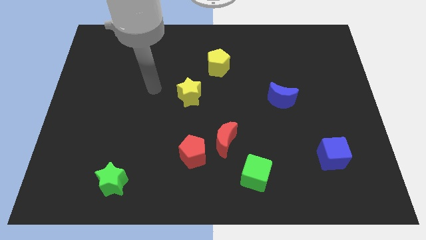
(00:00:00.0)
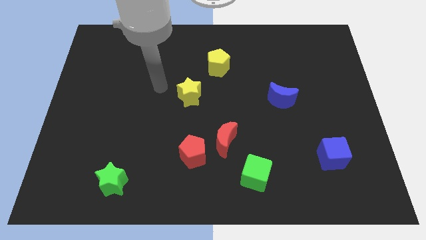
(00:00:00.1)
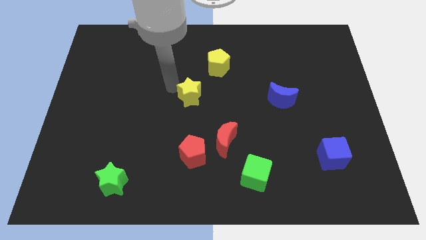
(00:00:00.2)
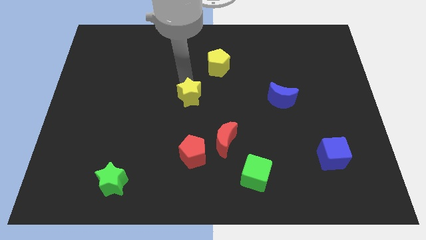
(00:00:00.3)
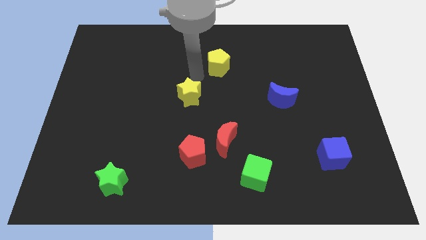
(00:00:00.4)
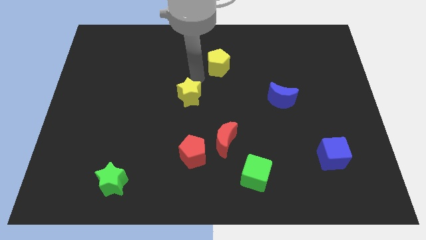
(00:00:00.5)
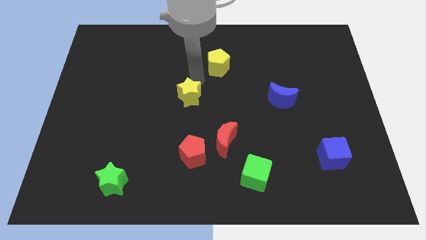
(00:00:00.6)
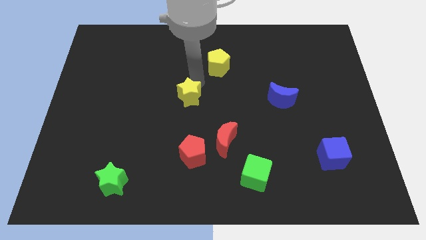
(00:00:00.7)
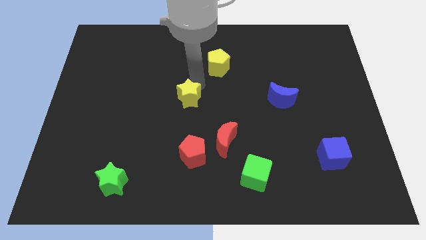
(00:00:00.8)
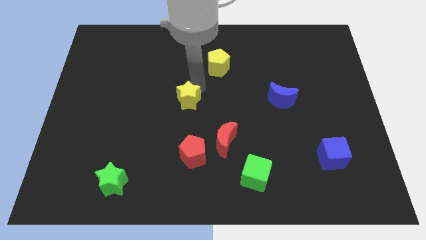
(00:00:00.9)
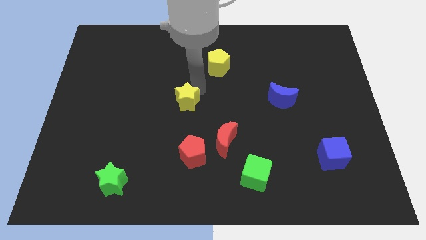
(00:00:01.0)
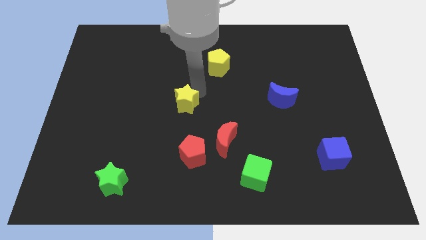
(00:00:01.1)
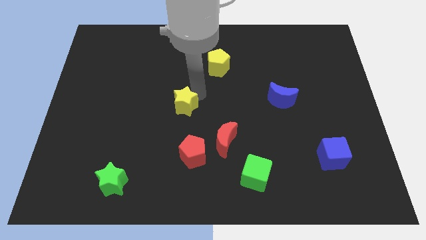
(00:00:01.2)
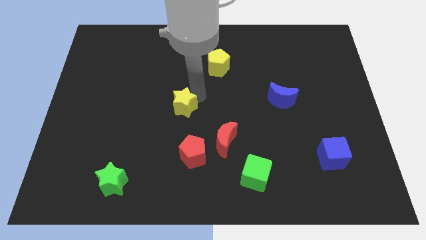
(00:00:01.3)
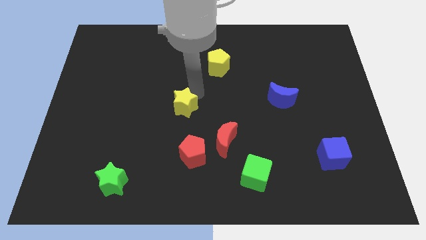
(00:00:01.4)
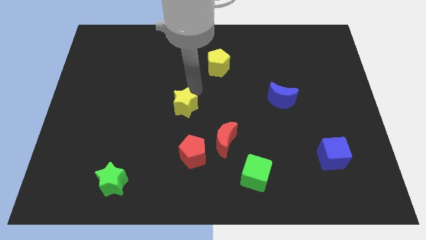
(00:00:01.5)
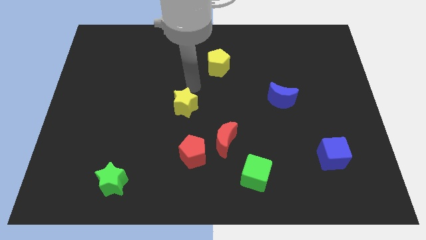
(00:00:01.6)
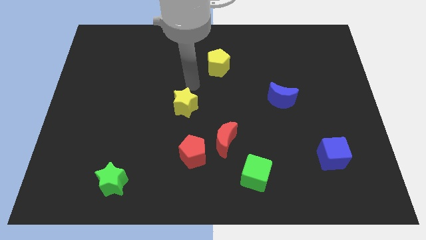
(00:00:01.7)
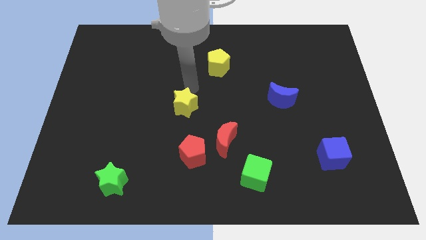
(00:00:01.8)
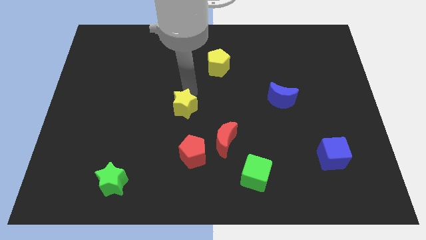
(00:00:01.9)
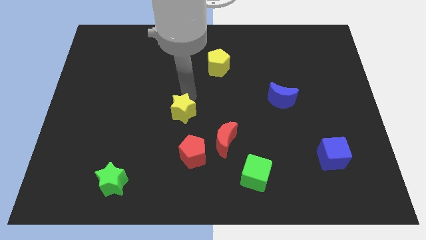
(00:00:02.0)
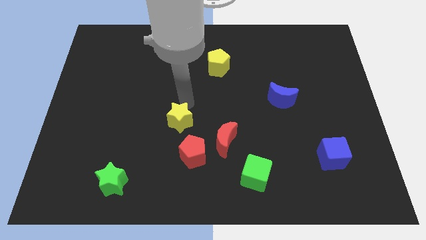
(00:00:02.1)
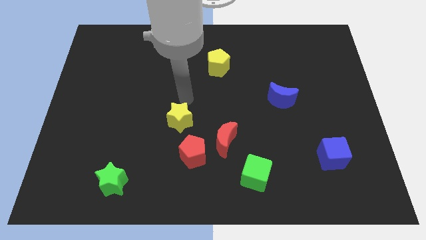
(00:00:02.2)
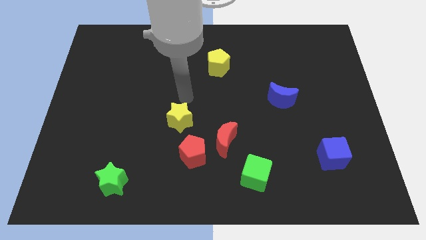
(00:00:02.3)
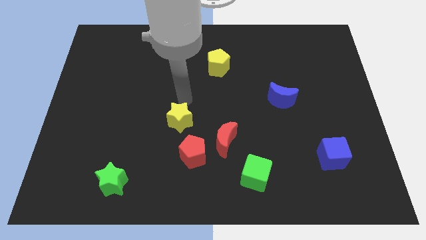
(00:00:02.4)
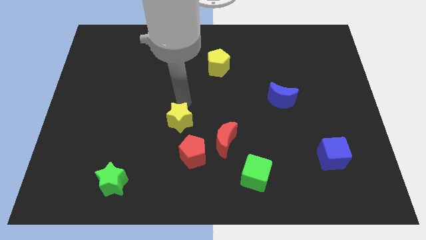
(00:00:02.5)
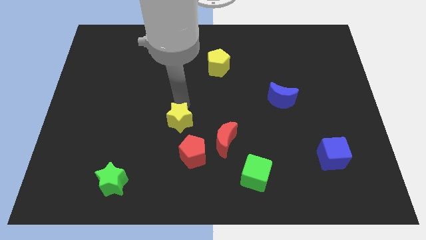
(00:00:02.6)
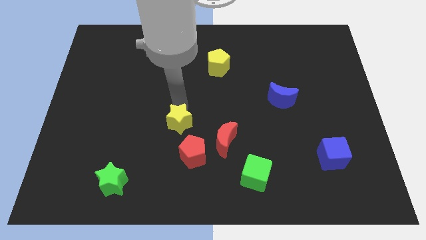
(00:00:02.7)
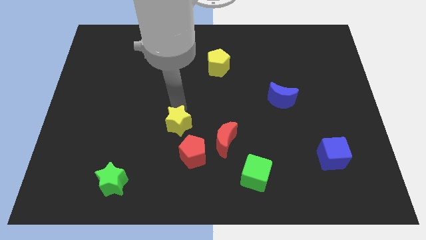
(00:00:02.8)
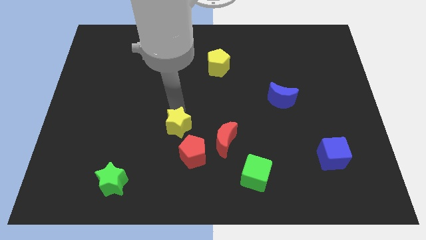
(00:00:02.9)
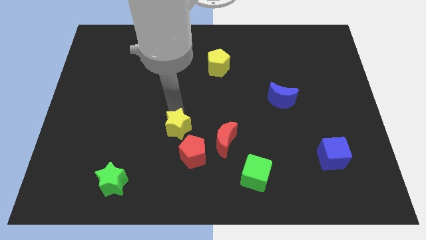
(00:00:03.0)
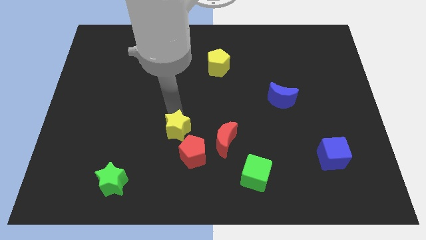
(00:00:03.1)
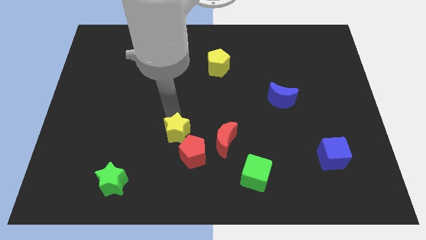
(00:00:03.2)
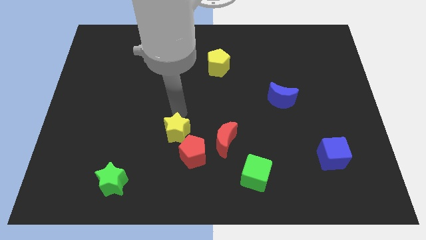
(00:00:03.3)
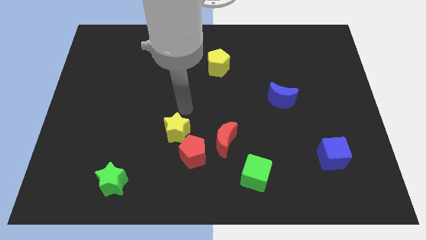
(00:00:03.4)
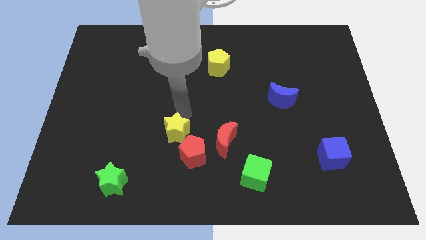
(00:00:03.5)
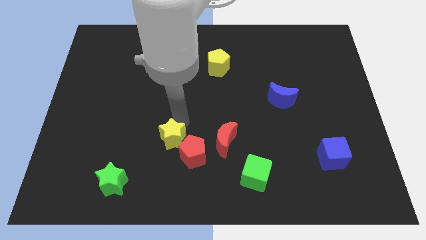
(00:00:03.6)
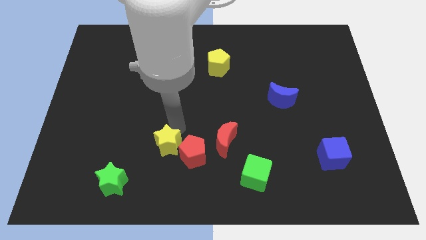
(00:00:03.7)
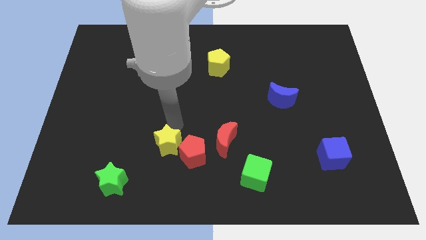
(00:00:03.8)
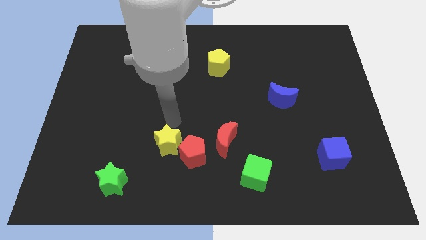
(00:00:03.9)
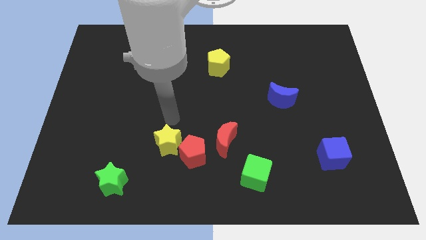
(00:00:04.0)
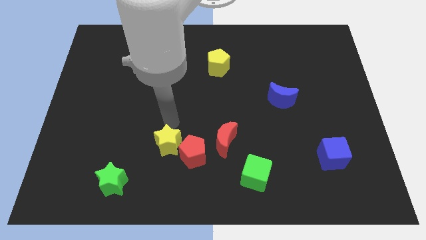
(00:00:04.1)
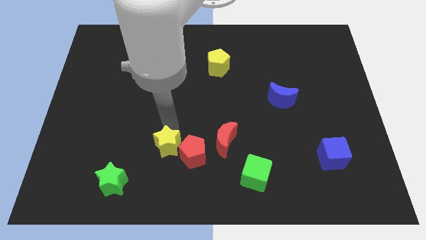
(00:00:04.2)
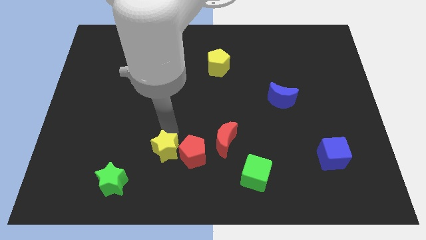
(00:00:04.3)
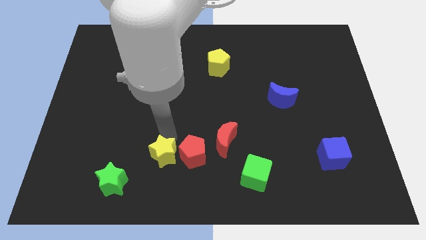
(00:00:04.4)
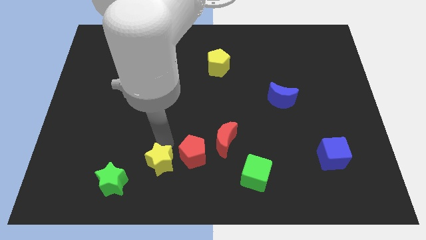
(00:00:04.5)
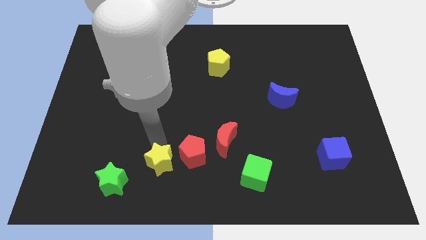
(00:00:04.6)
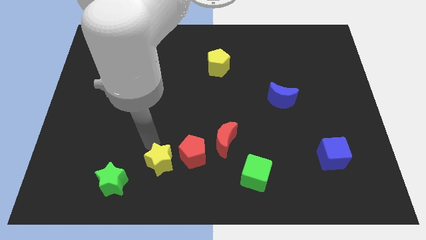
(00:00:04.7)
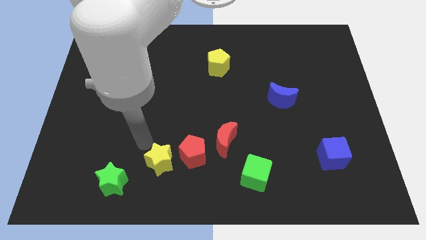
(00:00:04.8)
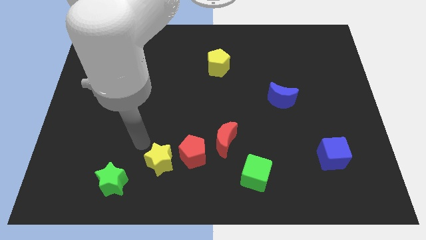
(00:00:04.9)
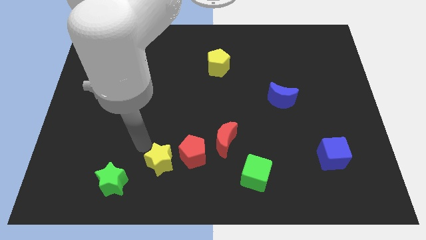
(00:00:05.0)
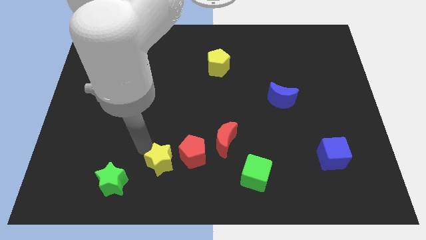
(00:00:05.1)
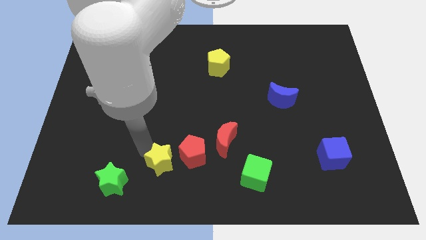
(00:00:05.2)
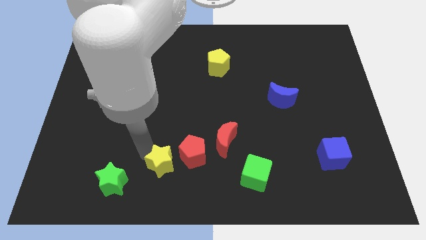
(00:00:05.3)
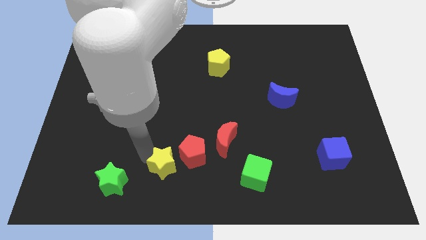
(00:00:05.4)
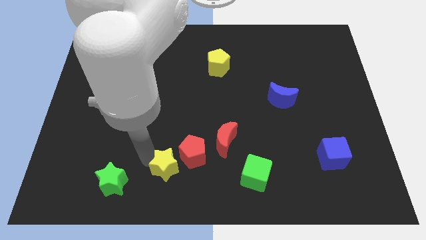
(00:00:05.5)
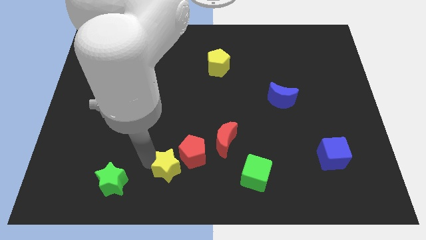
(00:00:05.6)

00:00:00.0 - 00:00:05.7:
put the yellow star to the bottom

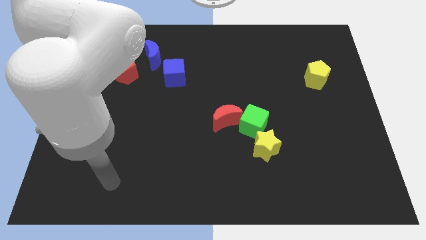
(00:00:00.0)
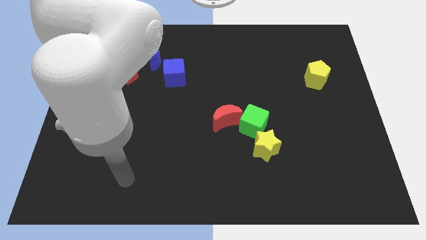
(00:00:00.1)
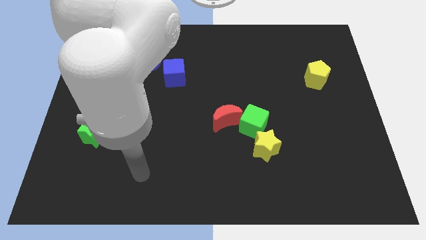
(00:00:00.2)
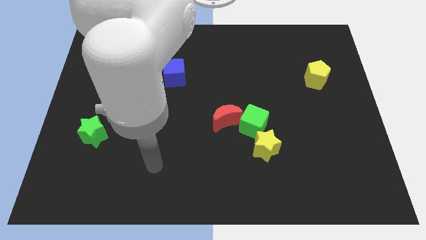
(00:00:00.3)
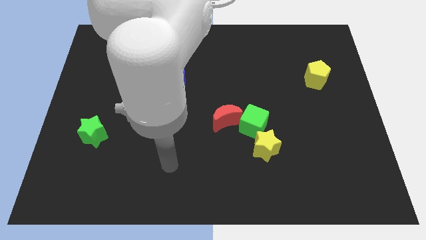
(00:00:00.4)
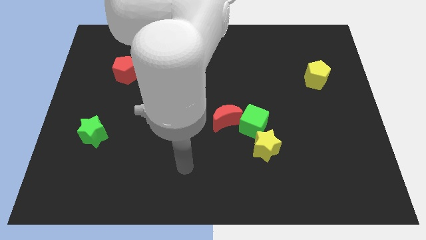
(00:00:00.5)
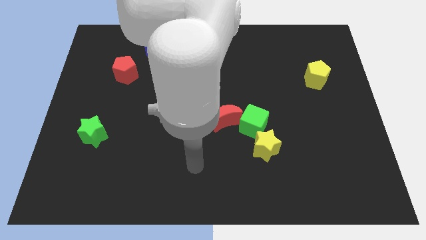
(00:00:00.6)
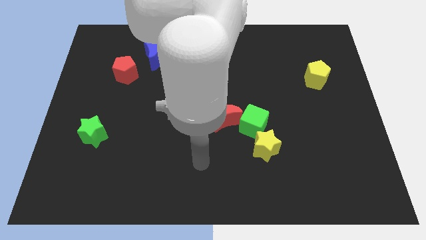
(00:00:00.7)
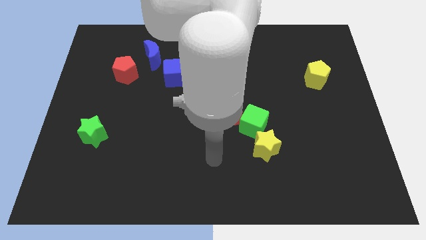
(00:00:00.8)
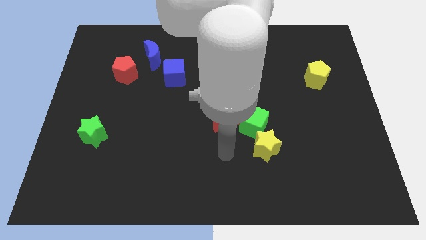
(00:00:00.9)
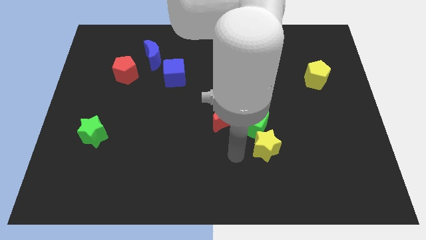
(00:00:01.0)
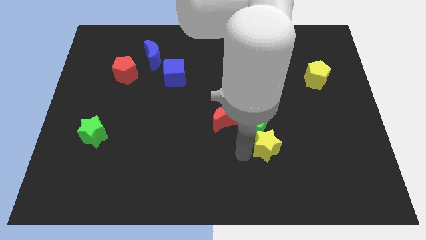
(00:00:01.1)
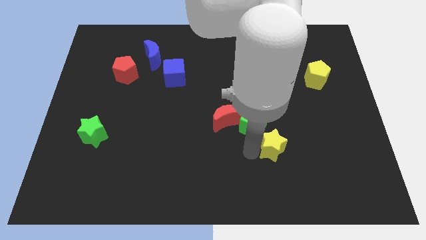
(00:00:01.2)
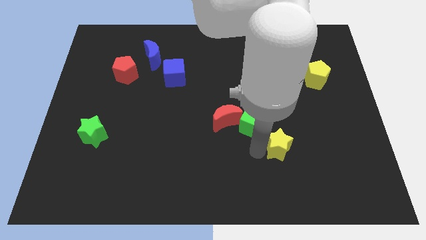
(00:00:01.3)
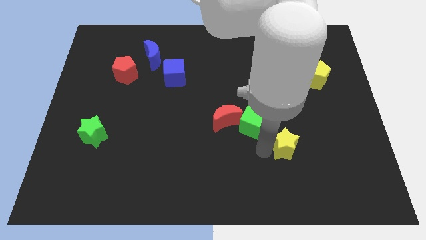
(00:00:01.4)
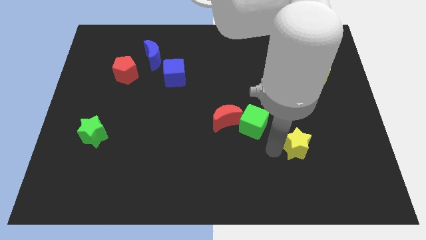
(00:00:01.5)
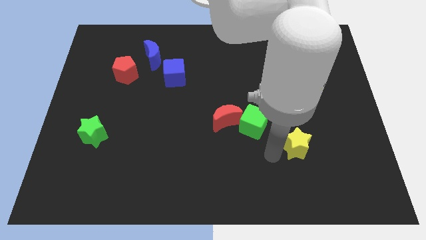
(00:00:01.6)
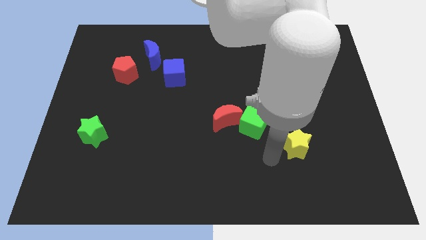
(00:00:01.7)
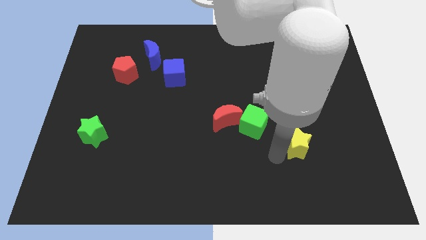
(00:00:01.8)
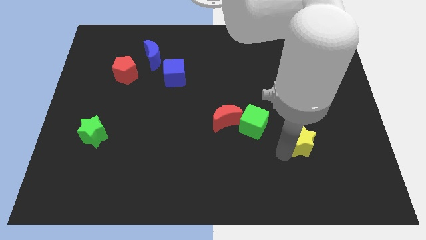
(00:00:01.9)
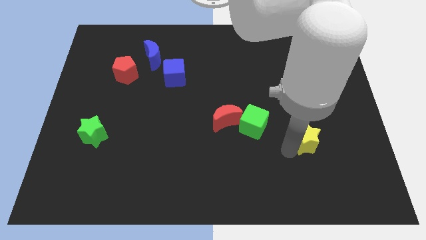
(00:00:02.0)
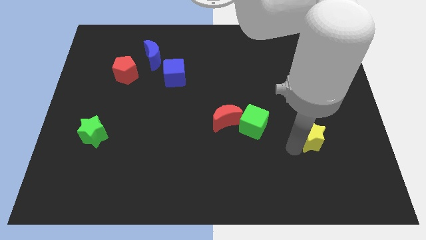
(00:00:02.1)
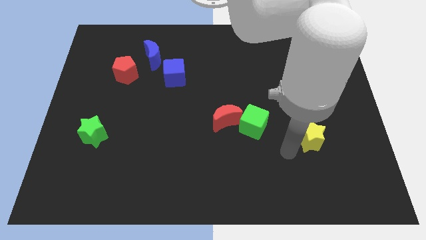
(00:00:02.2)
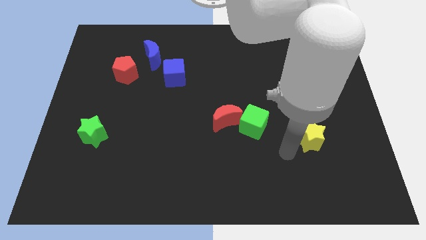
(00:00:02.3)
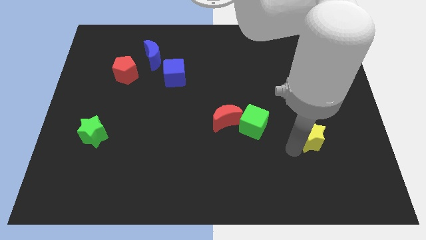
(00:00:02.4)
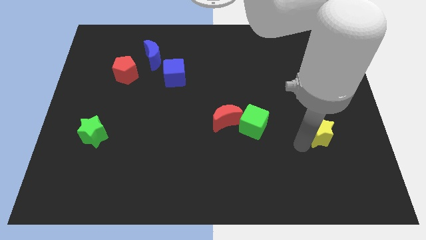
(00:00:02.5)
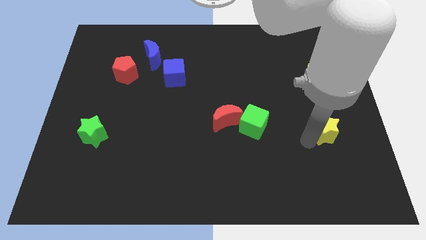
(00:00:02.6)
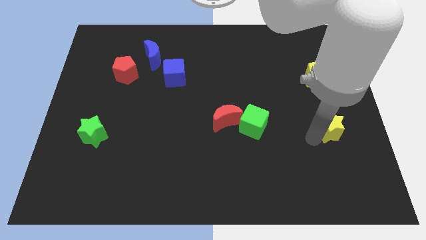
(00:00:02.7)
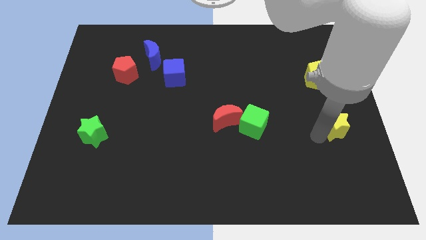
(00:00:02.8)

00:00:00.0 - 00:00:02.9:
slide the yellow star to the center right
